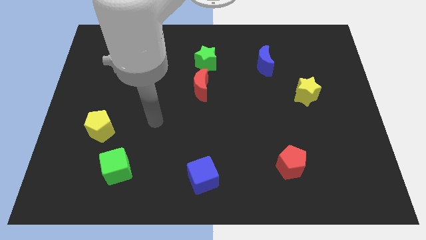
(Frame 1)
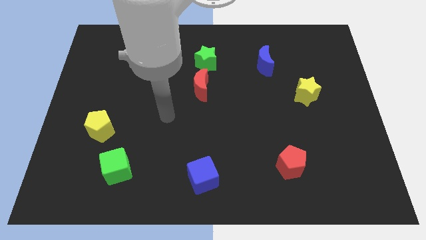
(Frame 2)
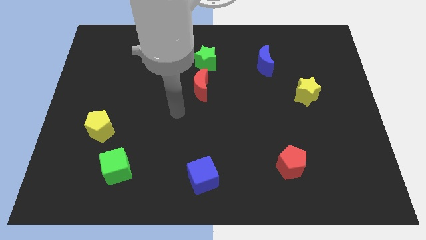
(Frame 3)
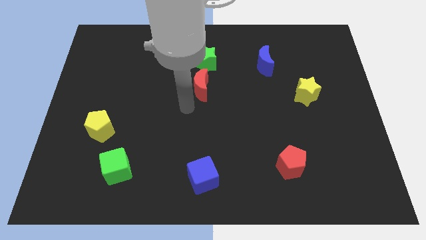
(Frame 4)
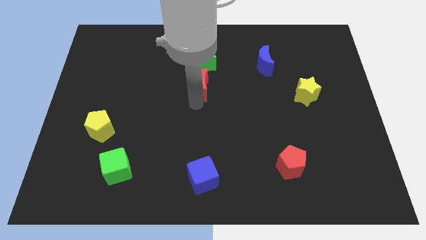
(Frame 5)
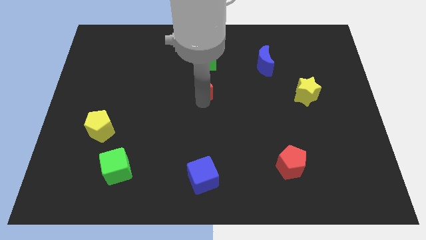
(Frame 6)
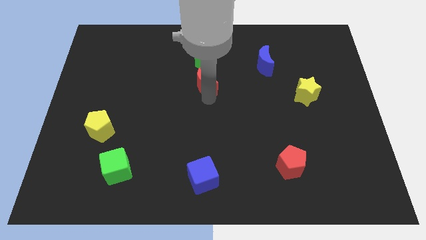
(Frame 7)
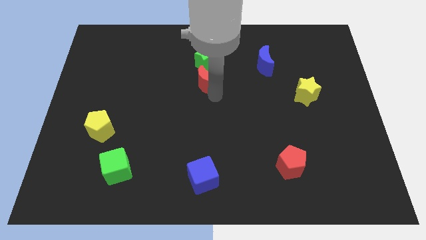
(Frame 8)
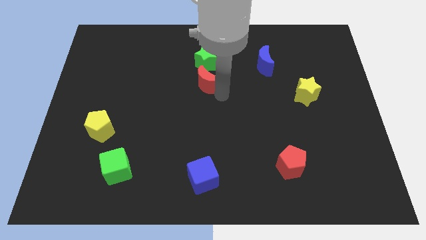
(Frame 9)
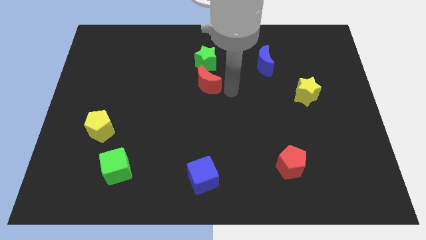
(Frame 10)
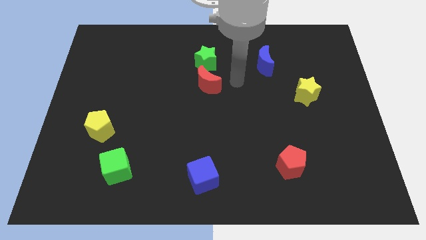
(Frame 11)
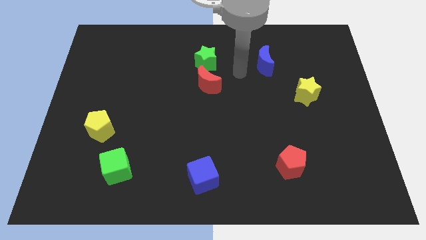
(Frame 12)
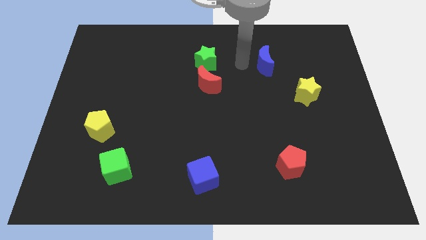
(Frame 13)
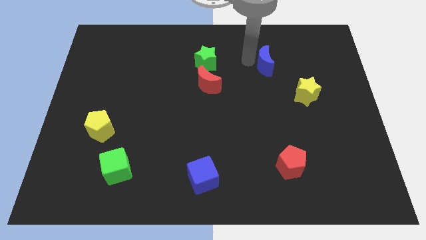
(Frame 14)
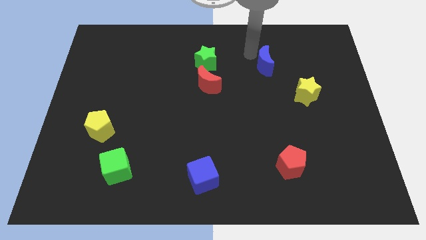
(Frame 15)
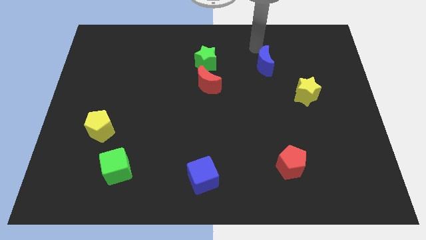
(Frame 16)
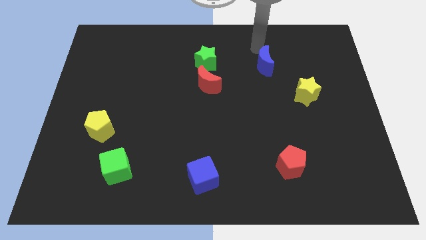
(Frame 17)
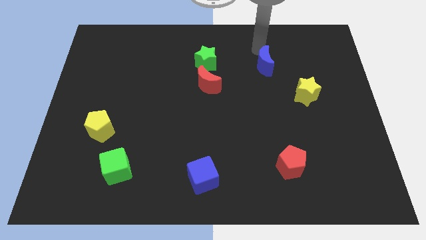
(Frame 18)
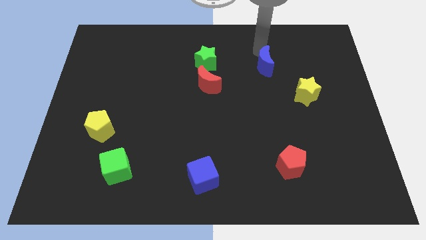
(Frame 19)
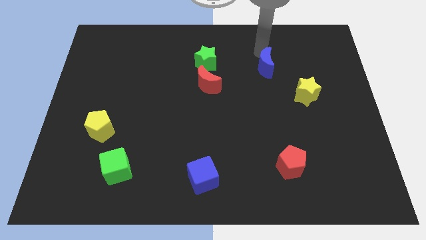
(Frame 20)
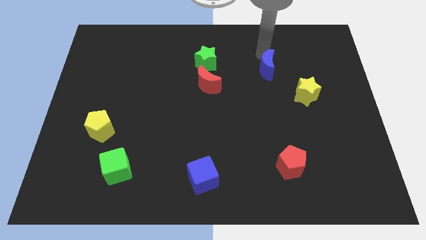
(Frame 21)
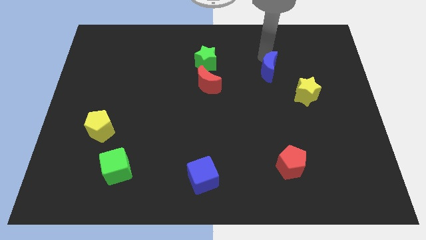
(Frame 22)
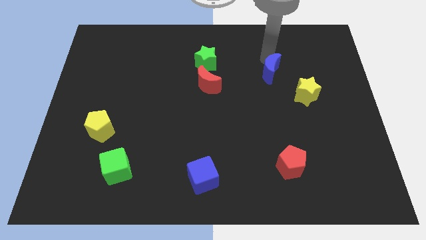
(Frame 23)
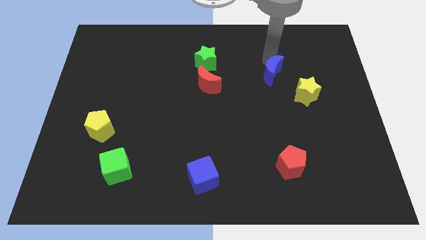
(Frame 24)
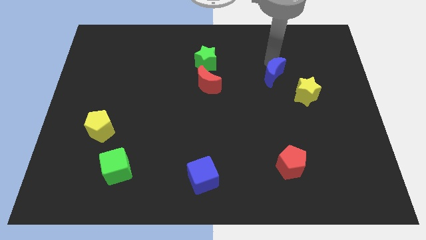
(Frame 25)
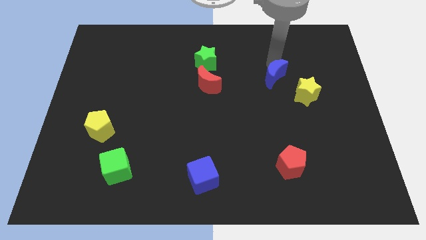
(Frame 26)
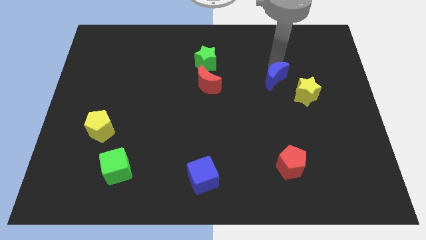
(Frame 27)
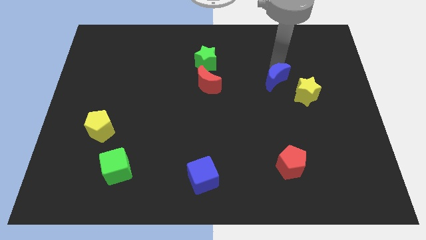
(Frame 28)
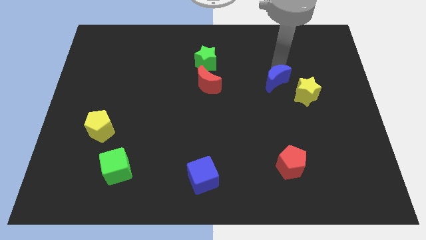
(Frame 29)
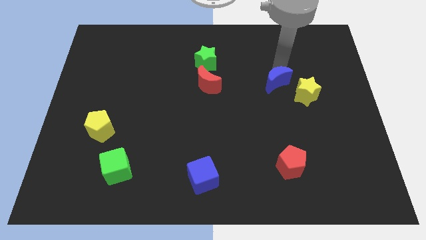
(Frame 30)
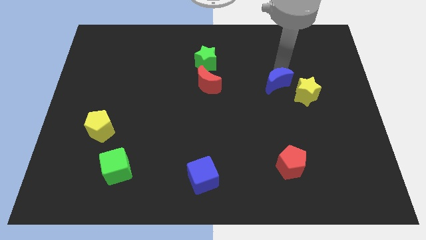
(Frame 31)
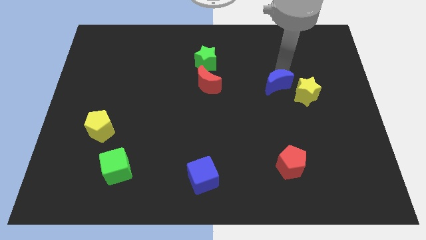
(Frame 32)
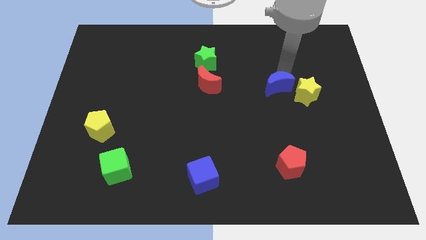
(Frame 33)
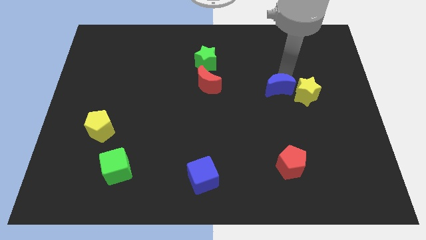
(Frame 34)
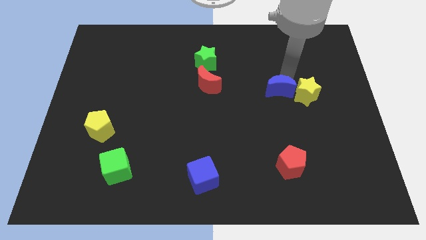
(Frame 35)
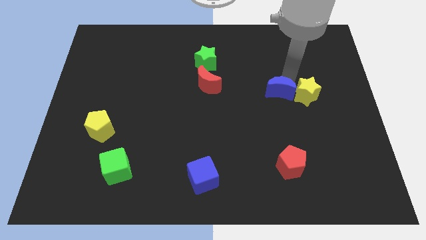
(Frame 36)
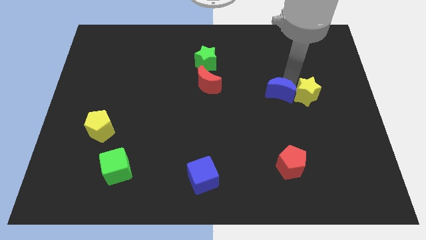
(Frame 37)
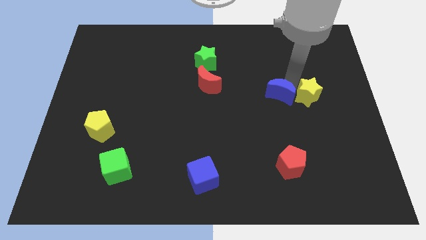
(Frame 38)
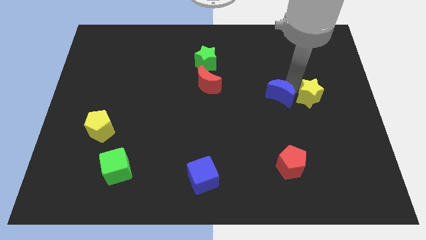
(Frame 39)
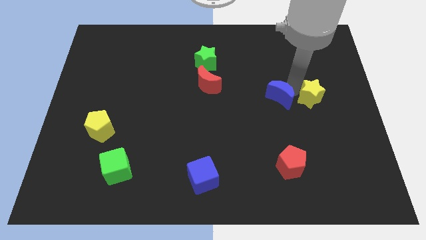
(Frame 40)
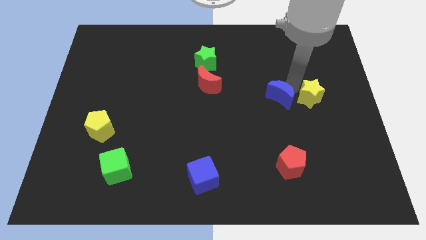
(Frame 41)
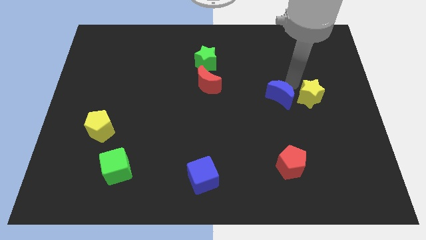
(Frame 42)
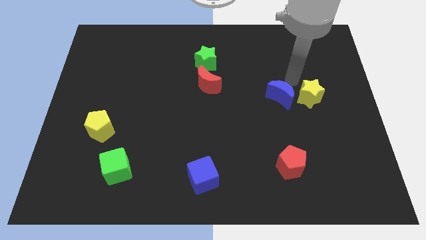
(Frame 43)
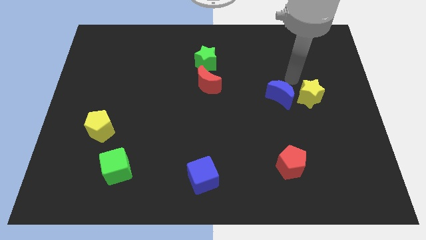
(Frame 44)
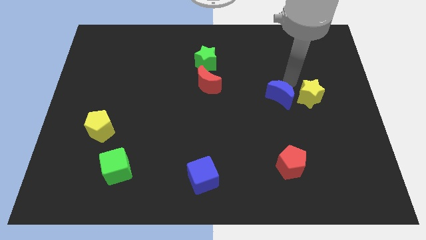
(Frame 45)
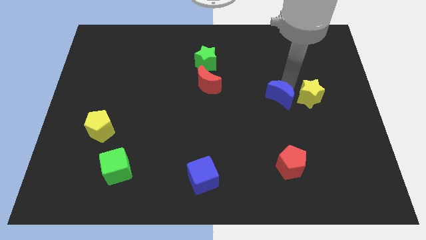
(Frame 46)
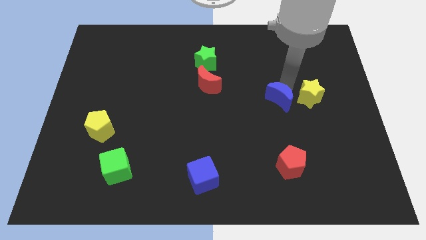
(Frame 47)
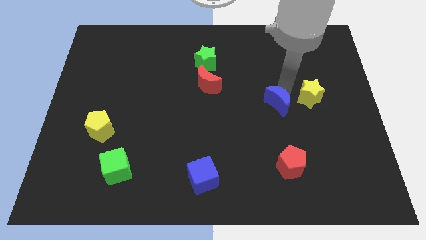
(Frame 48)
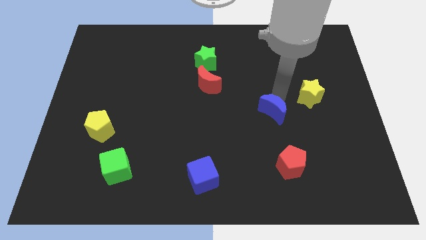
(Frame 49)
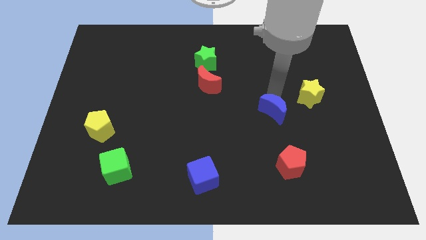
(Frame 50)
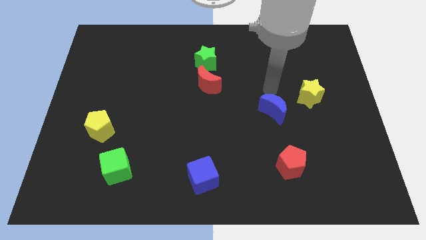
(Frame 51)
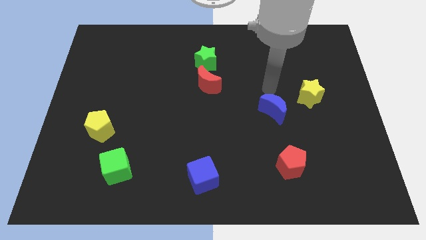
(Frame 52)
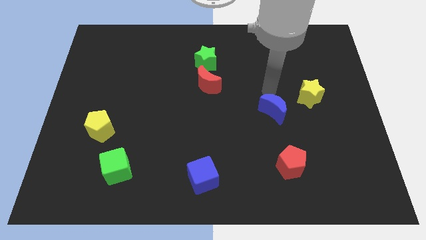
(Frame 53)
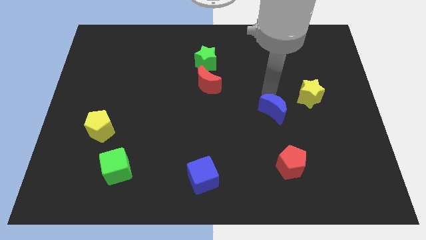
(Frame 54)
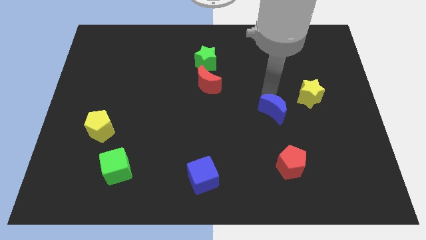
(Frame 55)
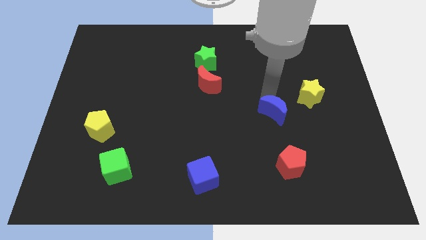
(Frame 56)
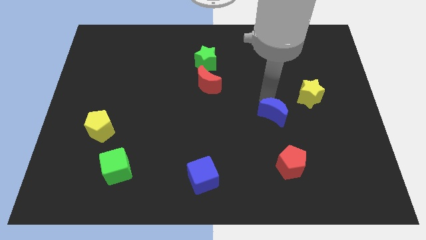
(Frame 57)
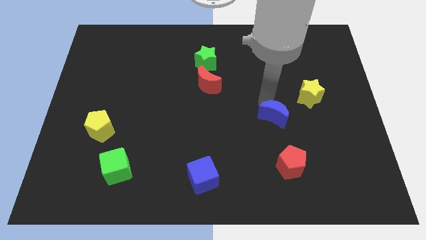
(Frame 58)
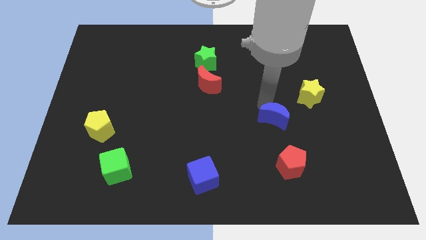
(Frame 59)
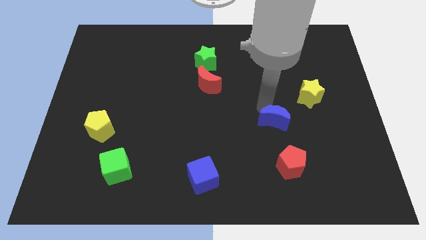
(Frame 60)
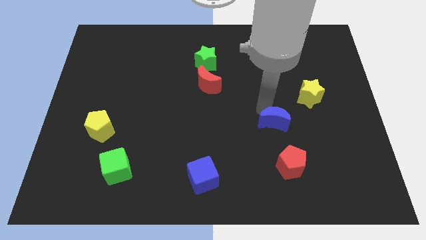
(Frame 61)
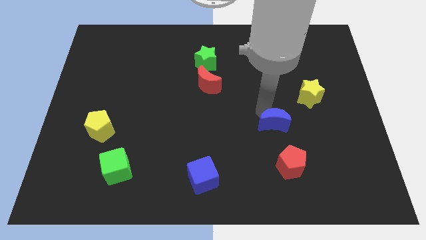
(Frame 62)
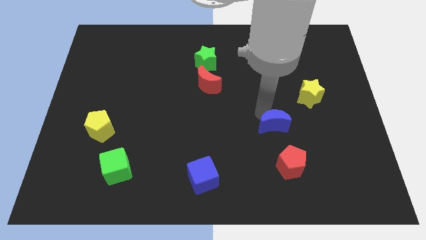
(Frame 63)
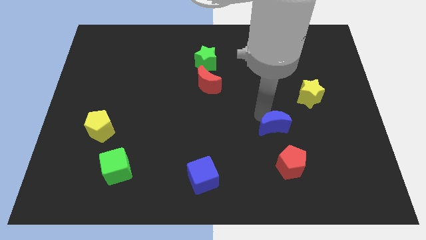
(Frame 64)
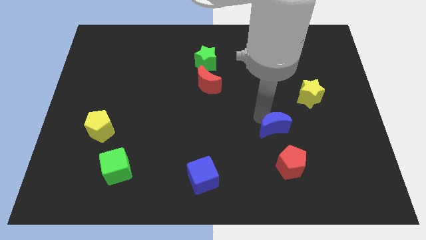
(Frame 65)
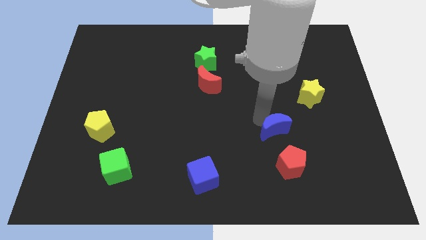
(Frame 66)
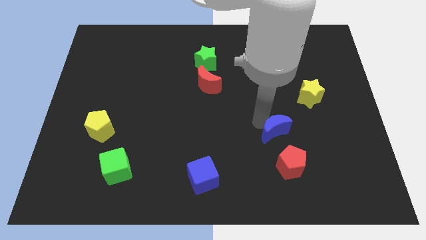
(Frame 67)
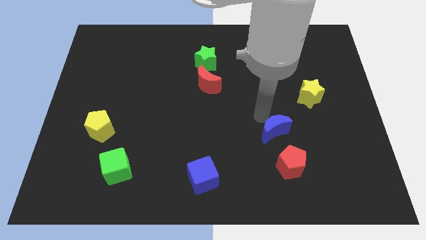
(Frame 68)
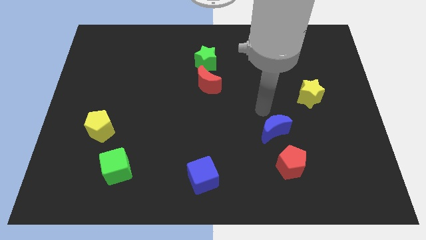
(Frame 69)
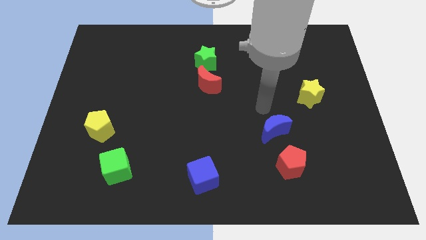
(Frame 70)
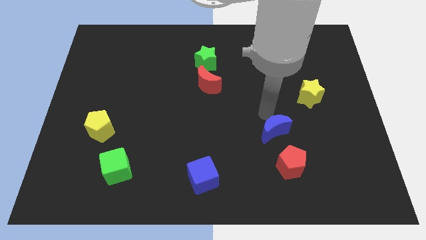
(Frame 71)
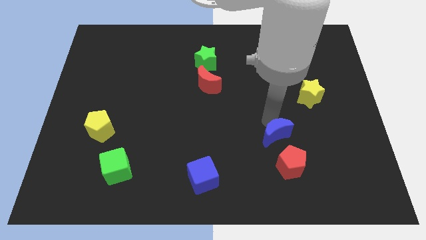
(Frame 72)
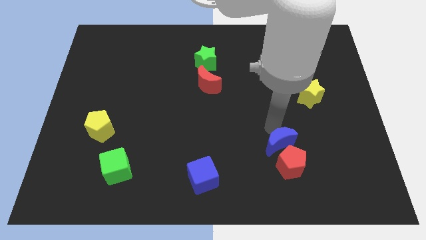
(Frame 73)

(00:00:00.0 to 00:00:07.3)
slide the blue moon to the red pentagon
